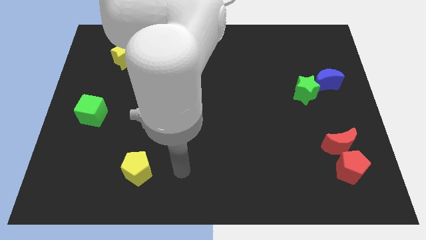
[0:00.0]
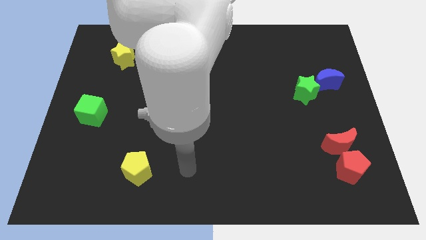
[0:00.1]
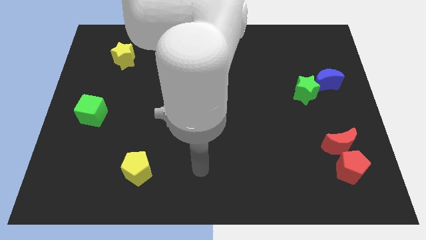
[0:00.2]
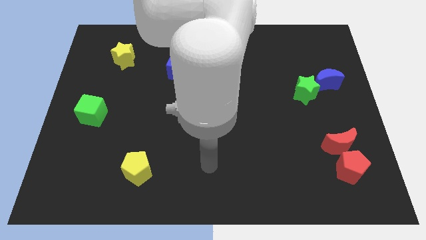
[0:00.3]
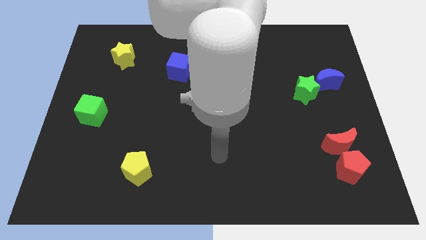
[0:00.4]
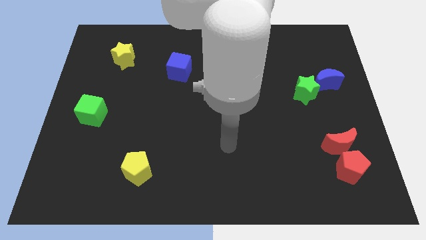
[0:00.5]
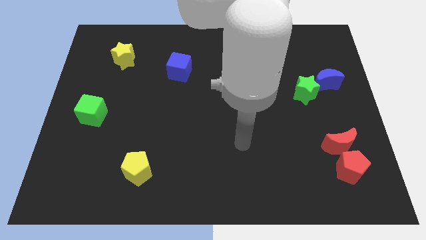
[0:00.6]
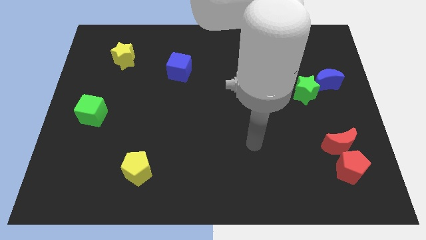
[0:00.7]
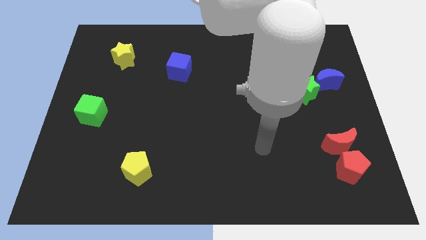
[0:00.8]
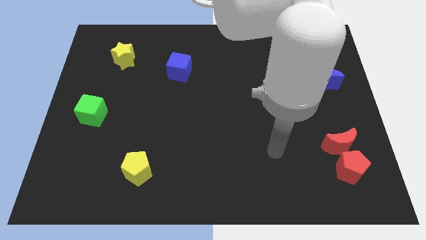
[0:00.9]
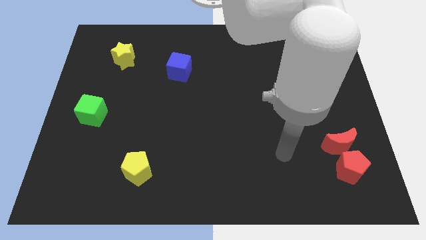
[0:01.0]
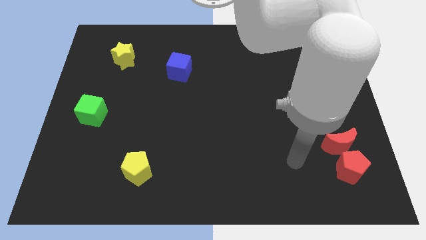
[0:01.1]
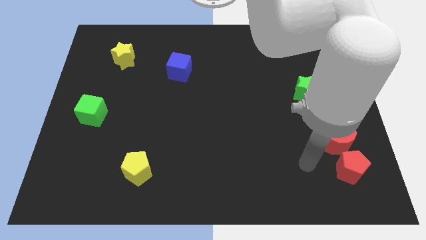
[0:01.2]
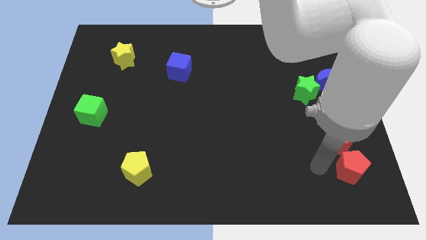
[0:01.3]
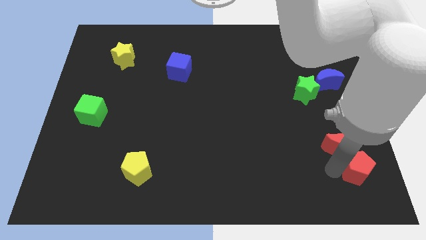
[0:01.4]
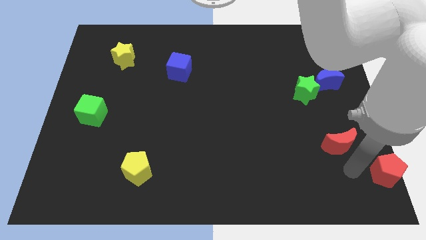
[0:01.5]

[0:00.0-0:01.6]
move the red moon away from the red pentagon

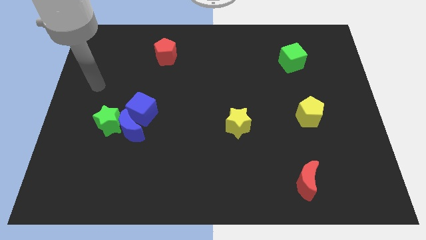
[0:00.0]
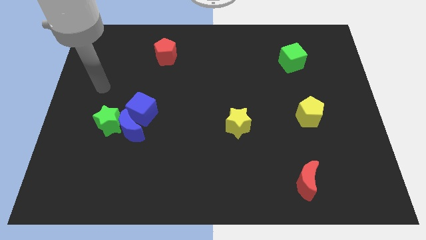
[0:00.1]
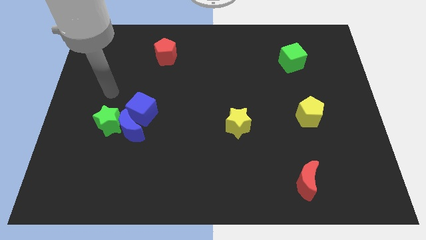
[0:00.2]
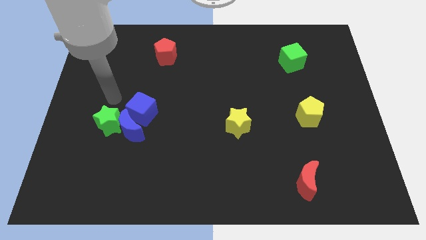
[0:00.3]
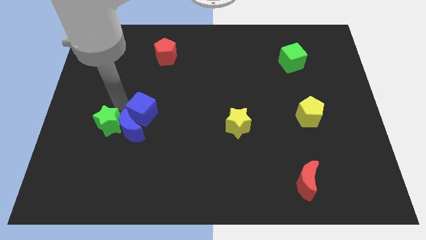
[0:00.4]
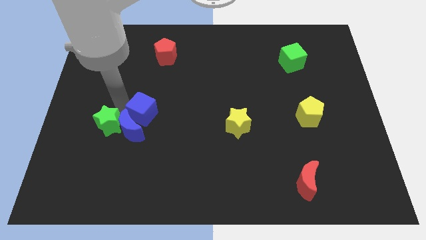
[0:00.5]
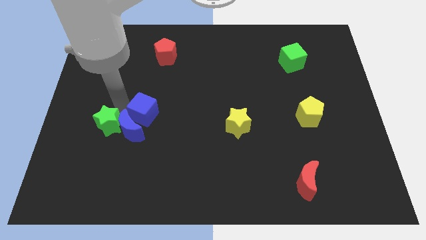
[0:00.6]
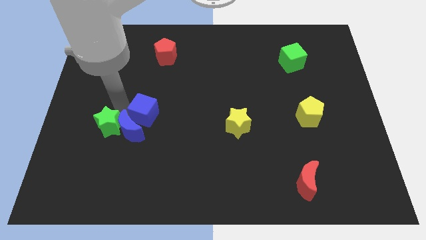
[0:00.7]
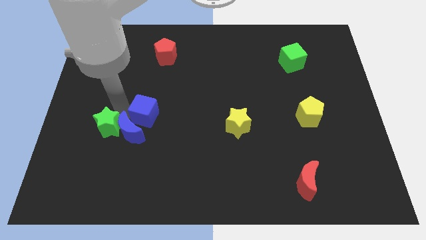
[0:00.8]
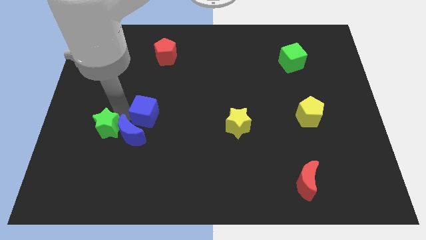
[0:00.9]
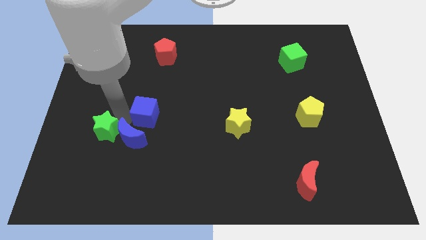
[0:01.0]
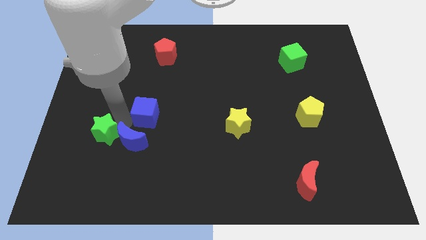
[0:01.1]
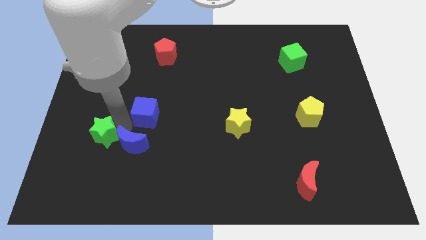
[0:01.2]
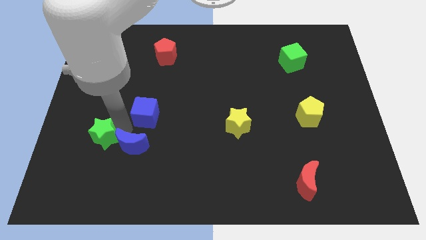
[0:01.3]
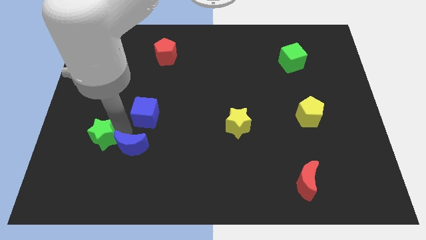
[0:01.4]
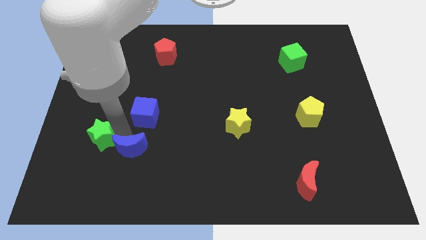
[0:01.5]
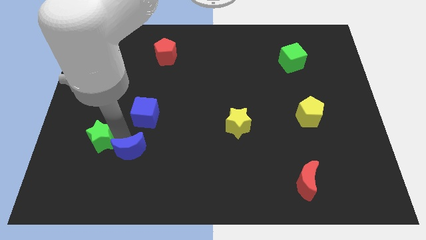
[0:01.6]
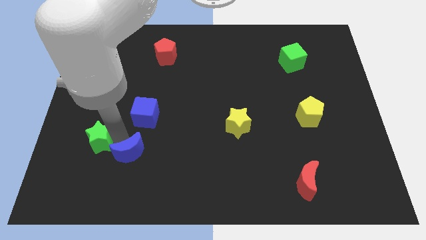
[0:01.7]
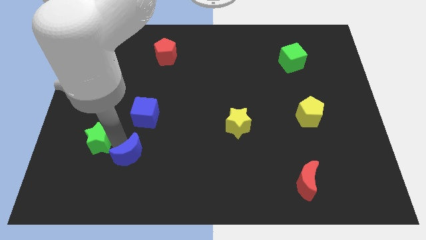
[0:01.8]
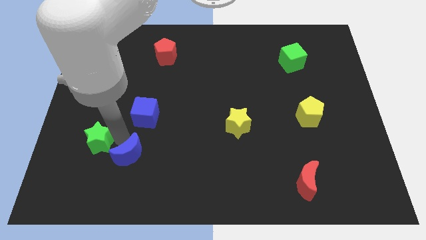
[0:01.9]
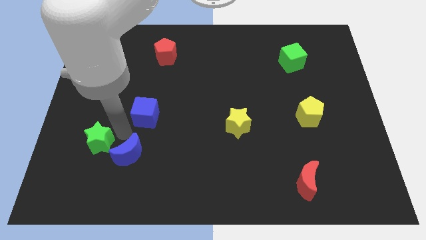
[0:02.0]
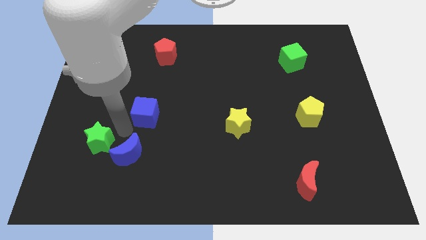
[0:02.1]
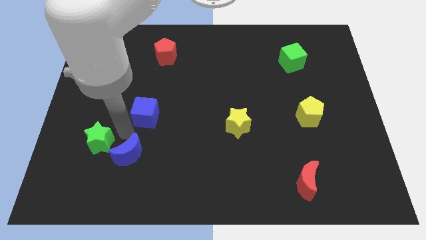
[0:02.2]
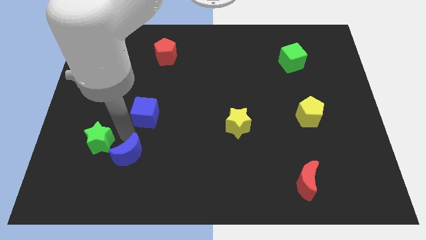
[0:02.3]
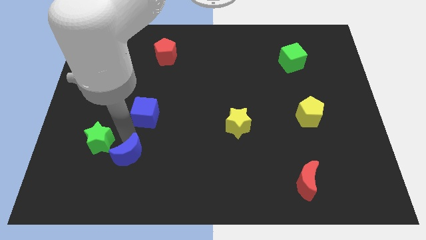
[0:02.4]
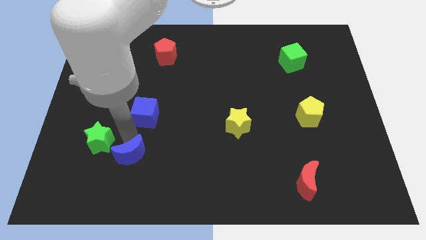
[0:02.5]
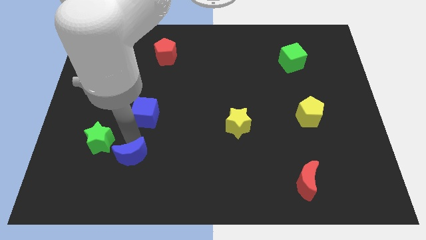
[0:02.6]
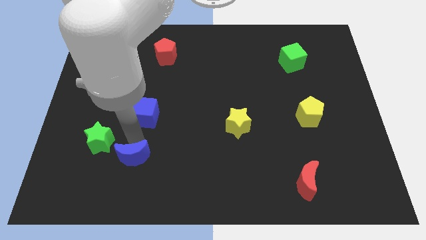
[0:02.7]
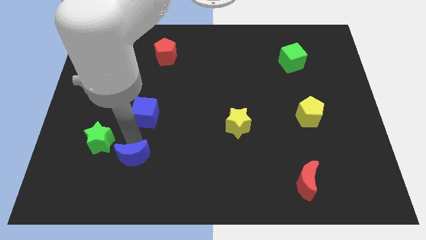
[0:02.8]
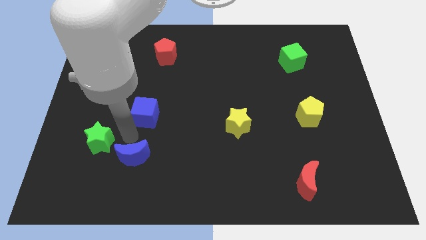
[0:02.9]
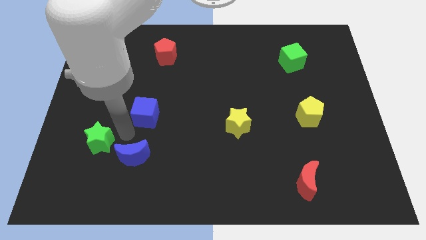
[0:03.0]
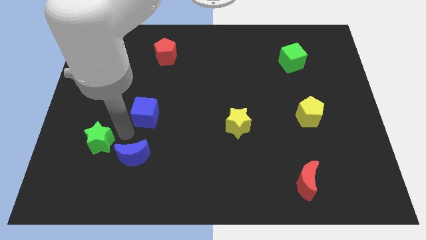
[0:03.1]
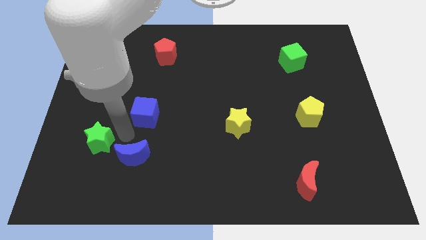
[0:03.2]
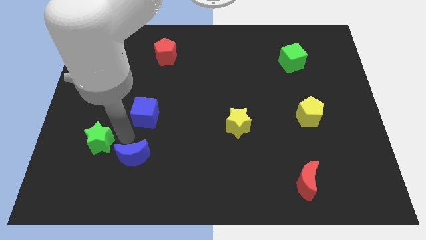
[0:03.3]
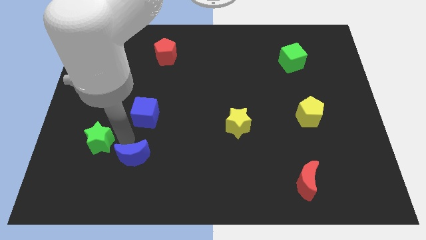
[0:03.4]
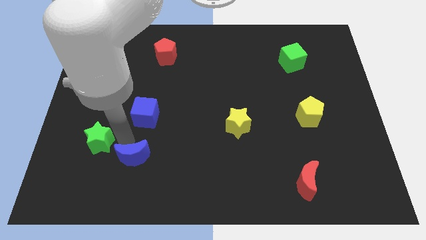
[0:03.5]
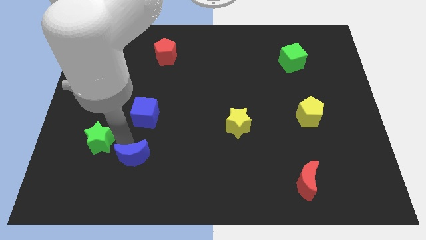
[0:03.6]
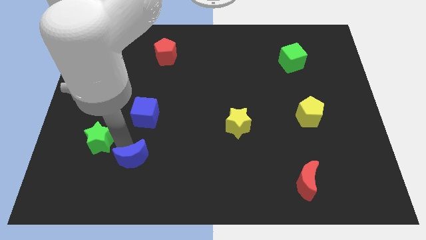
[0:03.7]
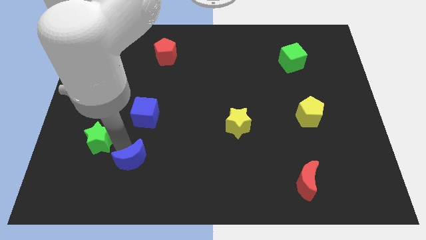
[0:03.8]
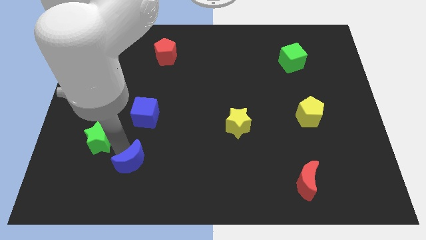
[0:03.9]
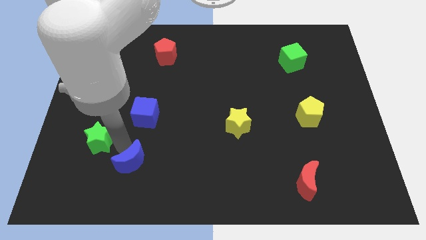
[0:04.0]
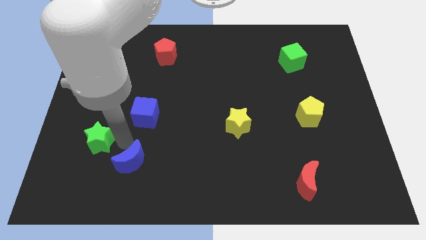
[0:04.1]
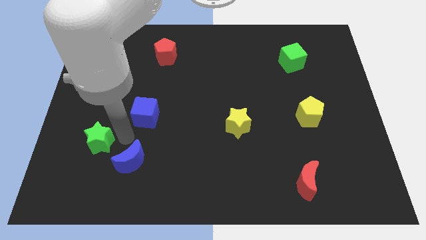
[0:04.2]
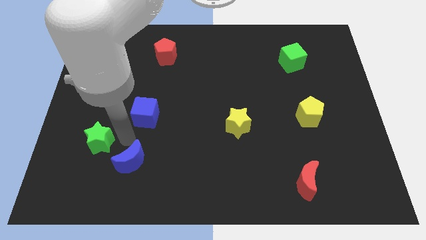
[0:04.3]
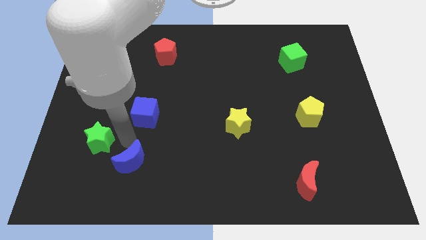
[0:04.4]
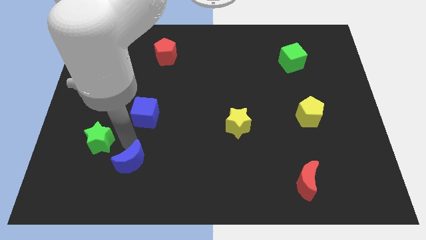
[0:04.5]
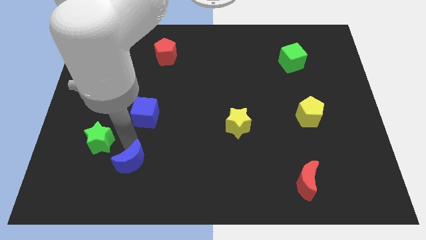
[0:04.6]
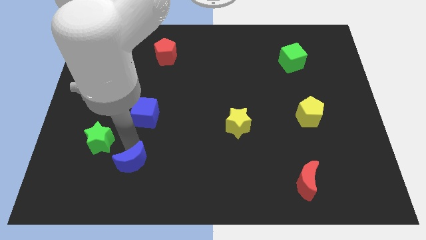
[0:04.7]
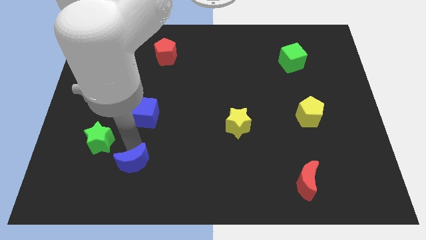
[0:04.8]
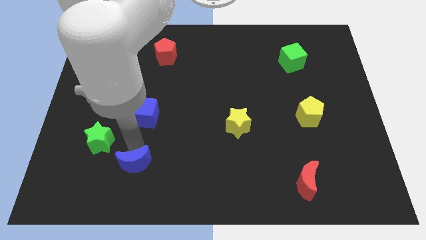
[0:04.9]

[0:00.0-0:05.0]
move the blue moon away from the green star and blue cube

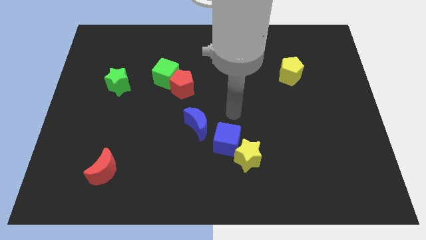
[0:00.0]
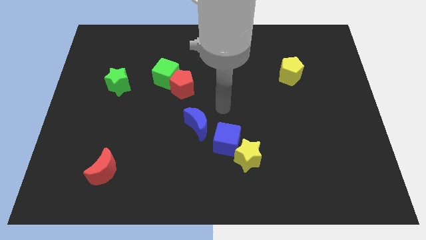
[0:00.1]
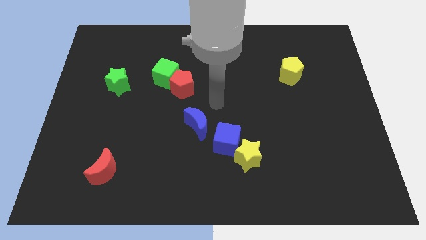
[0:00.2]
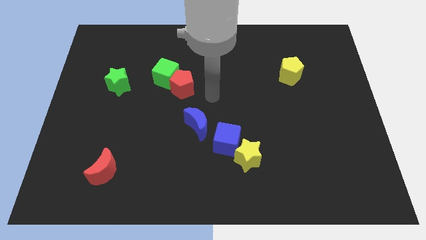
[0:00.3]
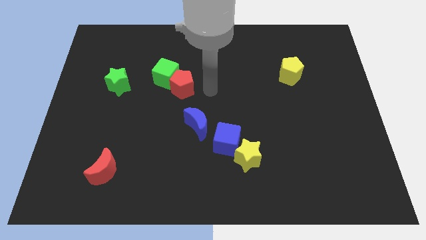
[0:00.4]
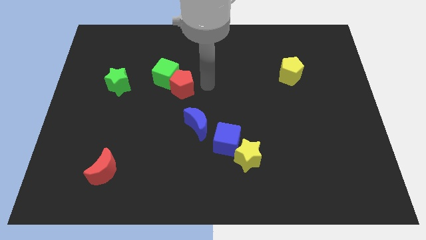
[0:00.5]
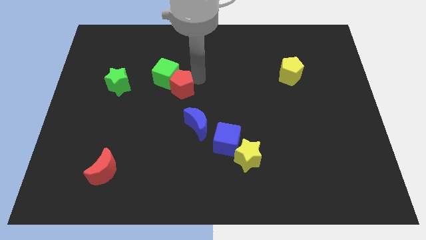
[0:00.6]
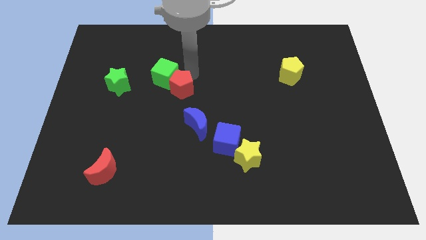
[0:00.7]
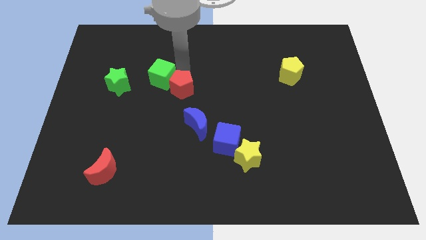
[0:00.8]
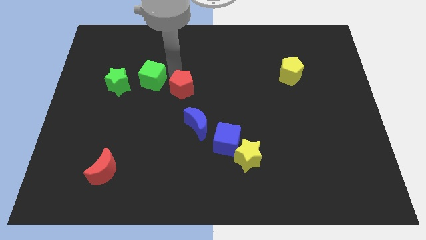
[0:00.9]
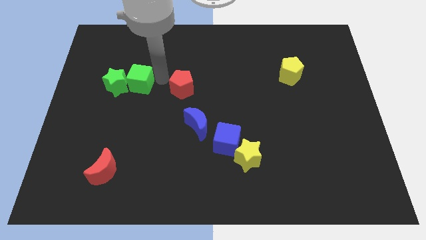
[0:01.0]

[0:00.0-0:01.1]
move the red pentagon away from the green cube

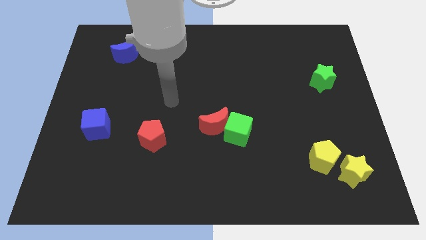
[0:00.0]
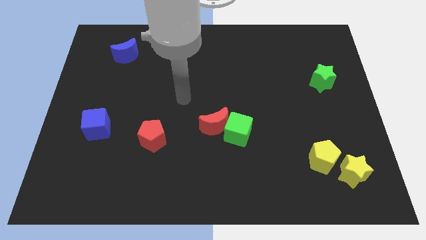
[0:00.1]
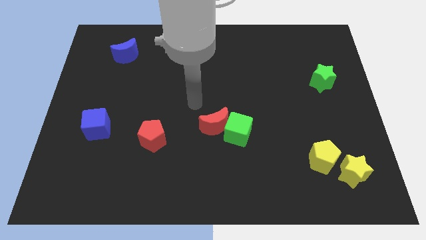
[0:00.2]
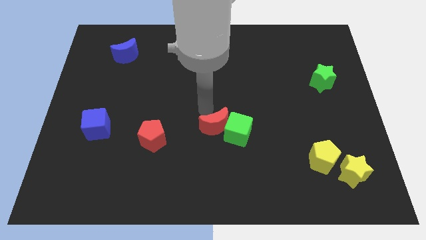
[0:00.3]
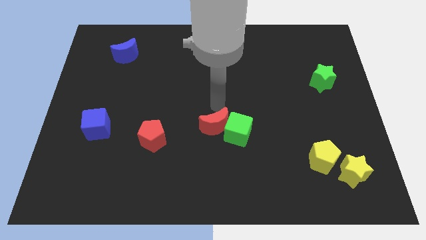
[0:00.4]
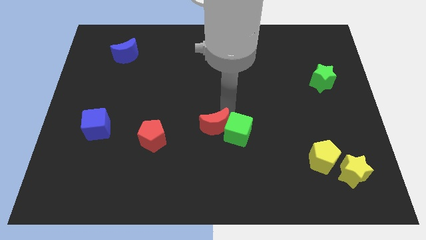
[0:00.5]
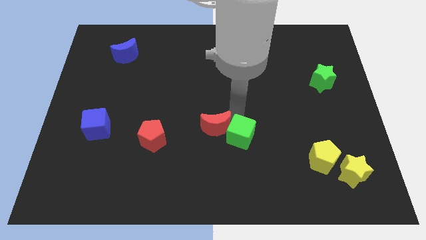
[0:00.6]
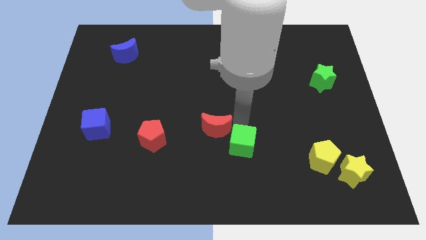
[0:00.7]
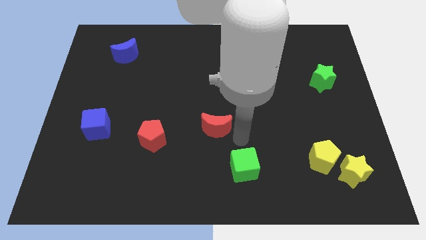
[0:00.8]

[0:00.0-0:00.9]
separate the red moon from the green cube

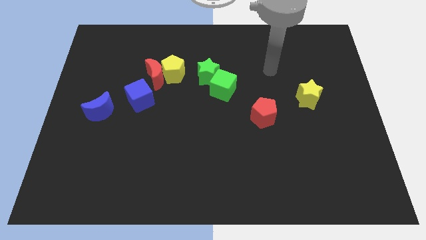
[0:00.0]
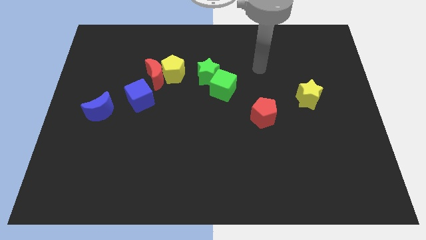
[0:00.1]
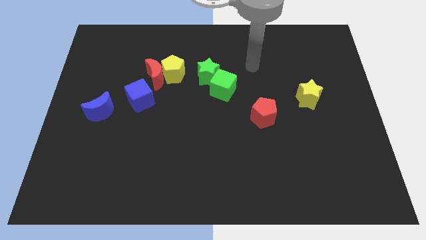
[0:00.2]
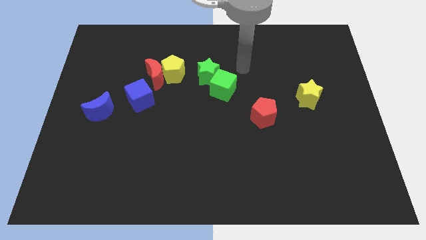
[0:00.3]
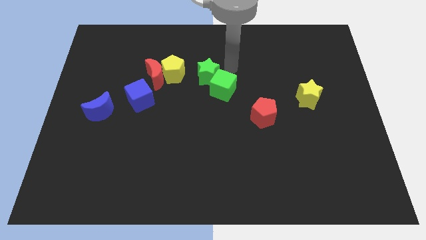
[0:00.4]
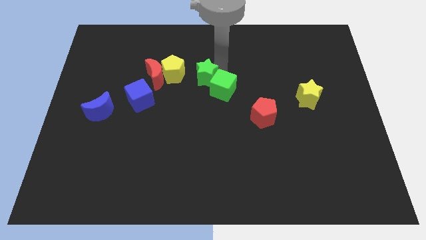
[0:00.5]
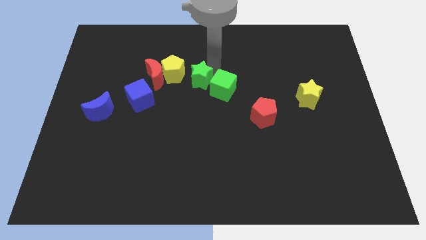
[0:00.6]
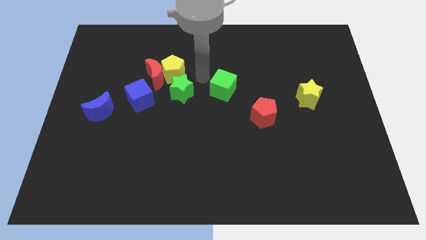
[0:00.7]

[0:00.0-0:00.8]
separate the green cube from the green star
